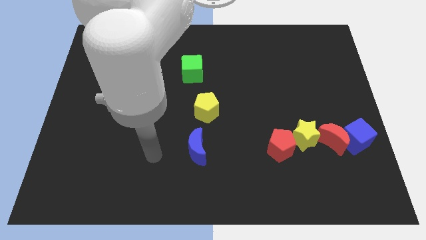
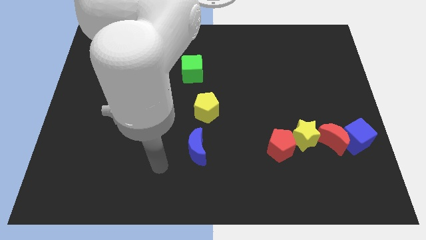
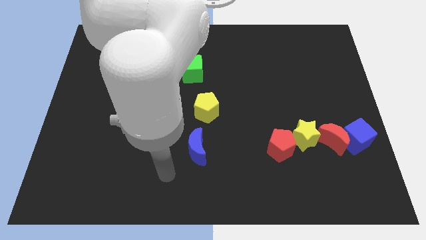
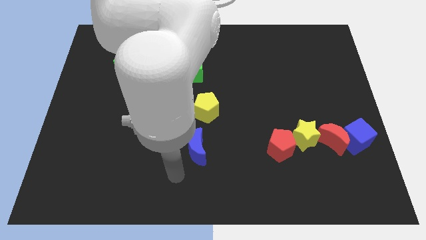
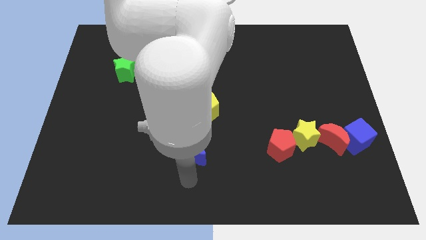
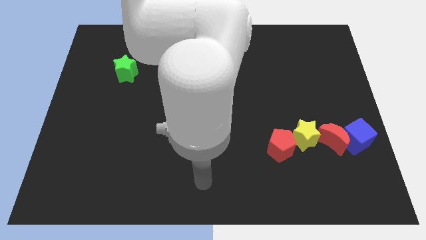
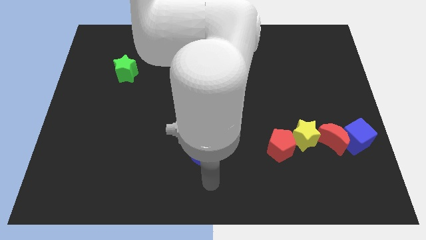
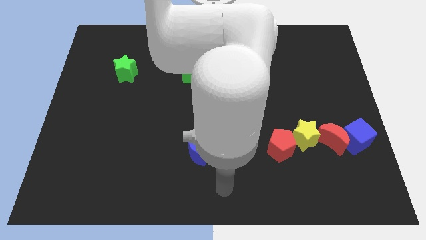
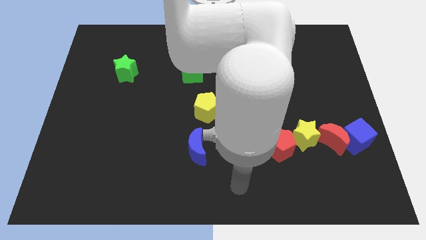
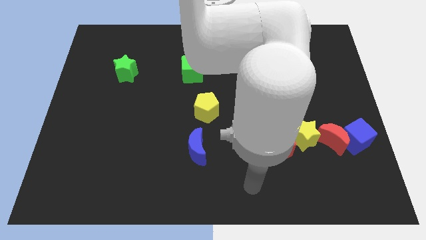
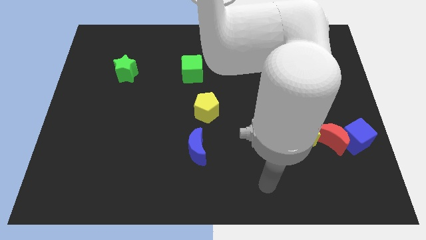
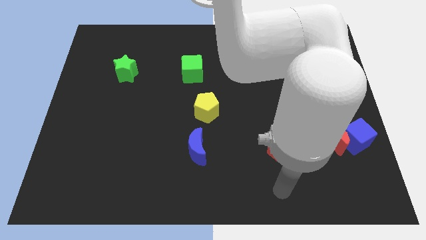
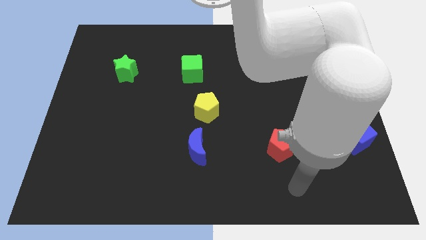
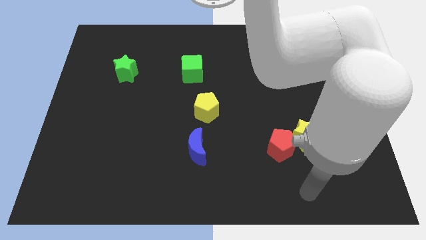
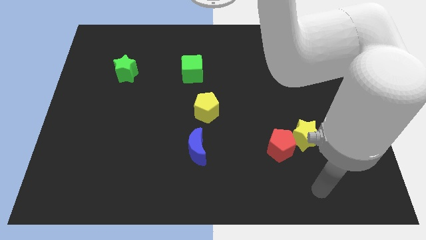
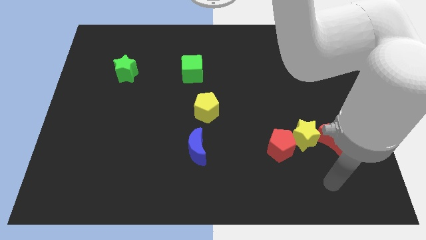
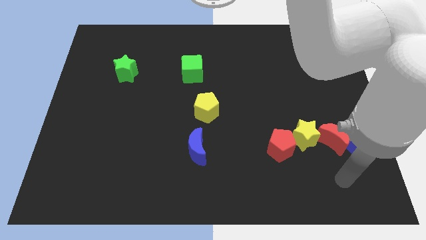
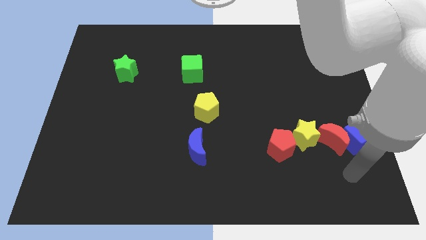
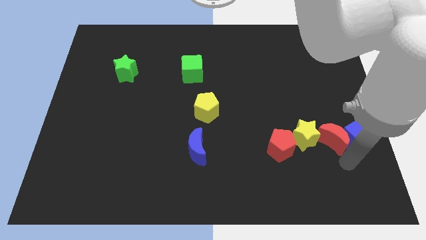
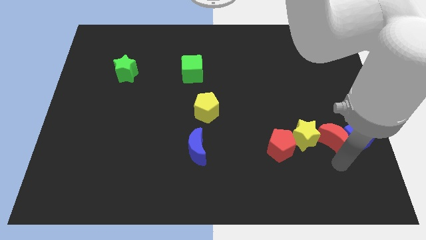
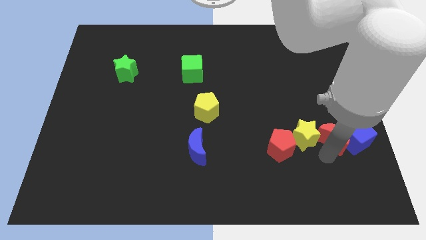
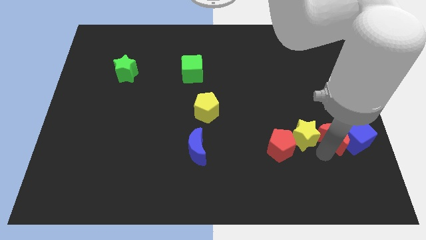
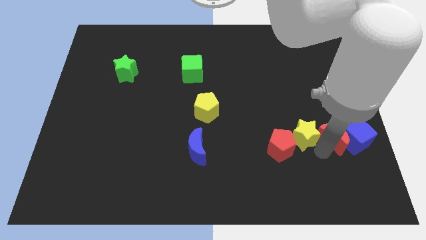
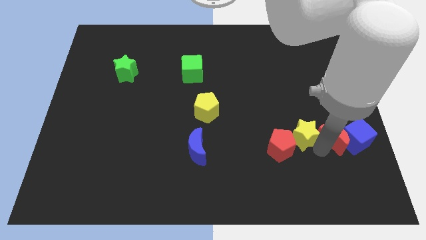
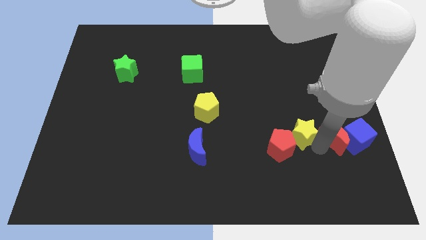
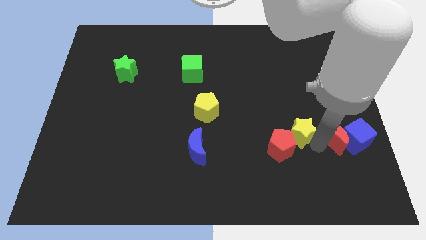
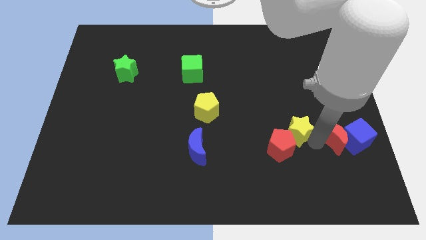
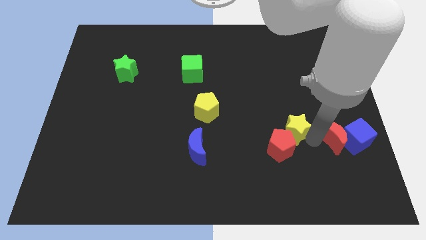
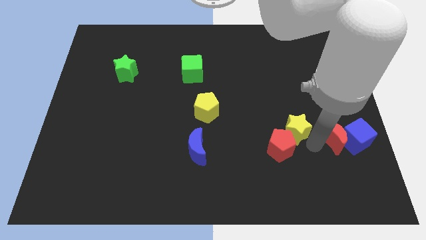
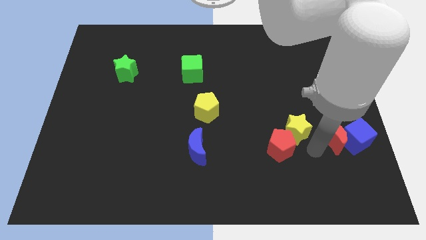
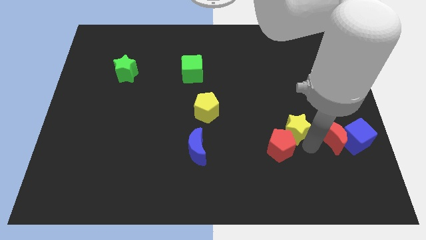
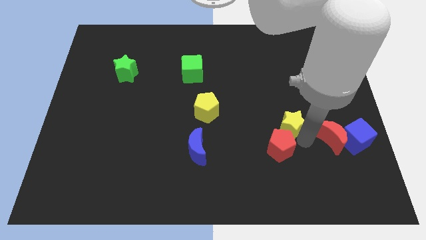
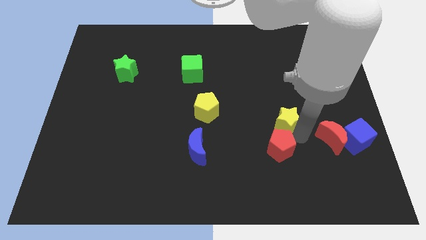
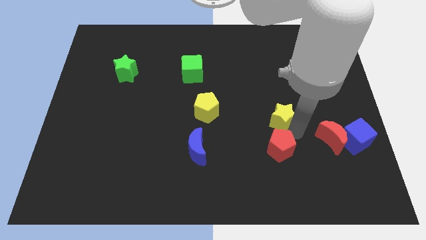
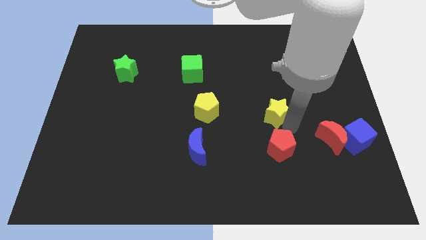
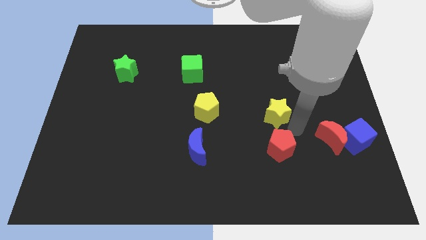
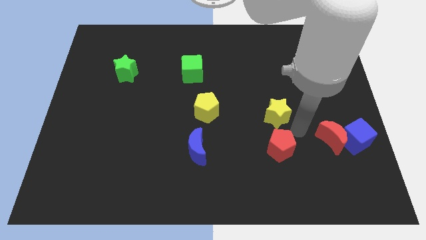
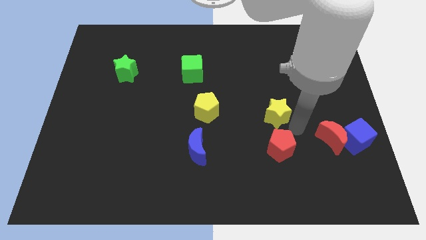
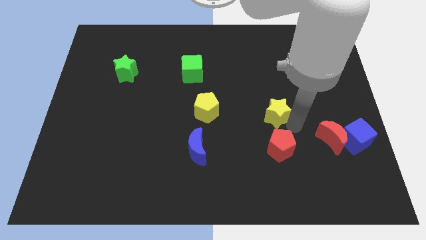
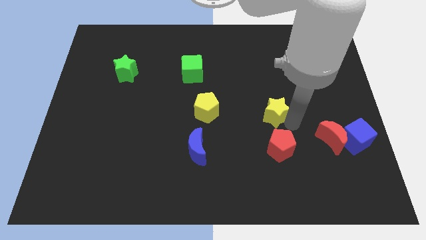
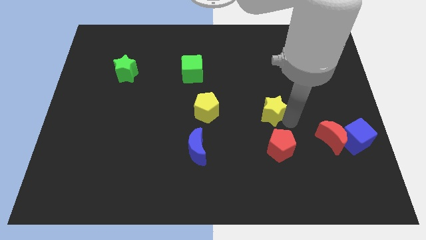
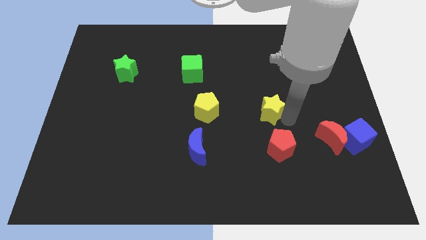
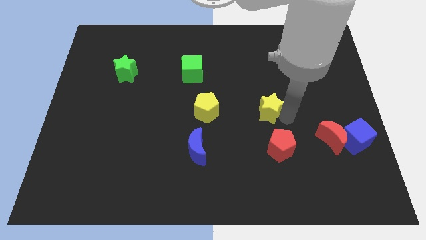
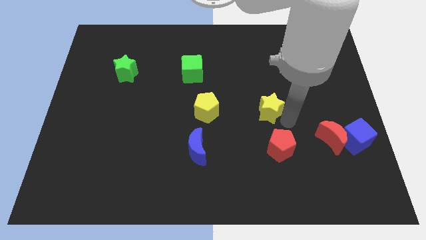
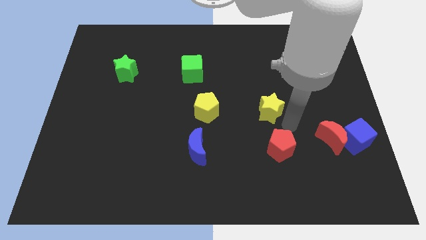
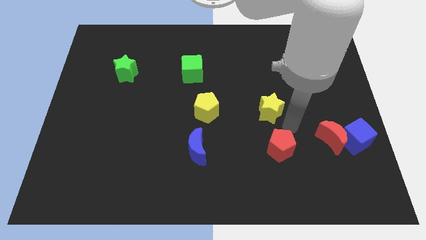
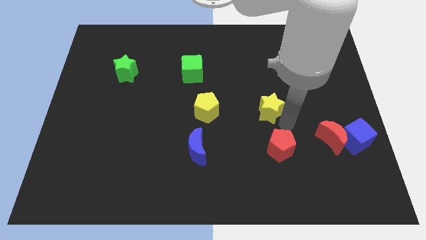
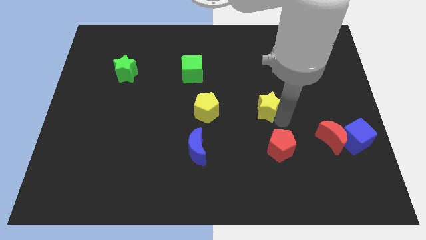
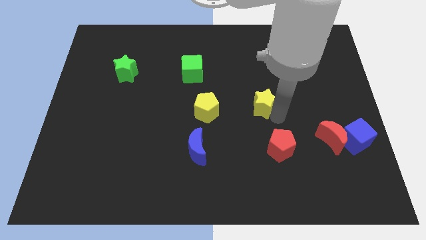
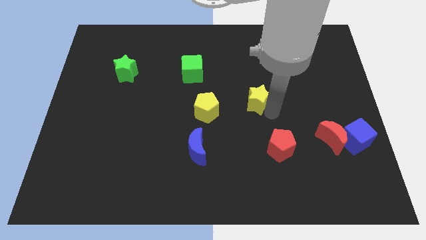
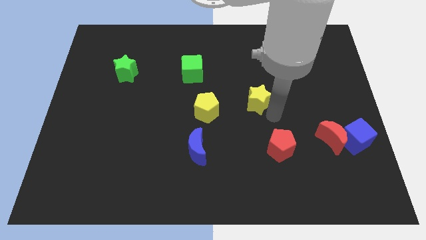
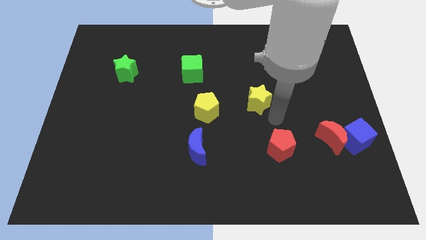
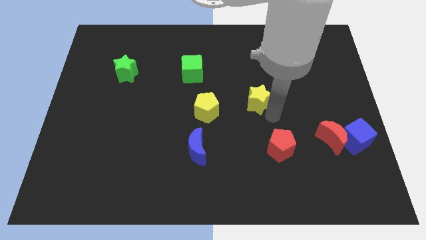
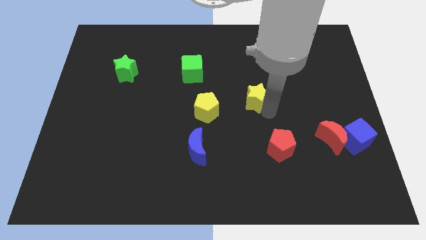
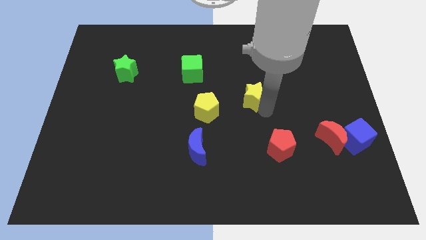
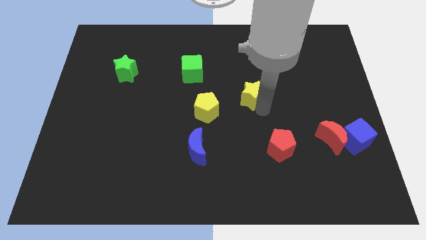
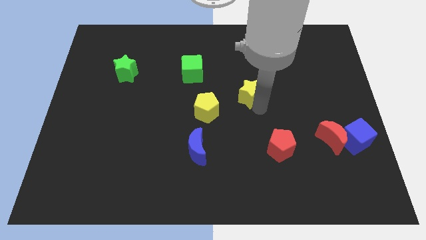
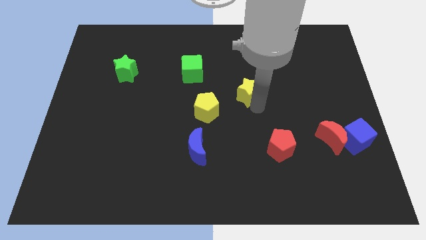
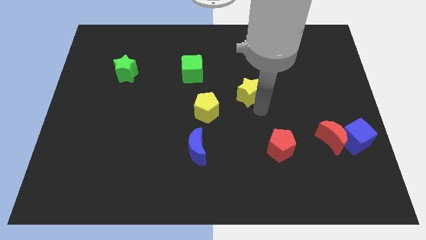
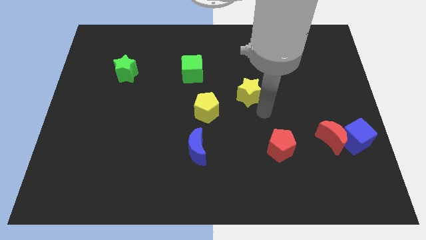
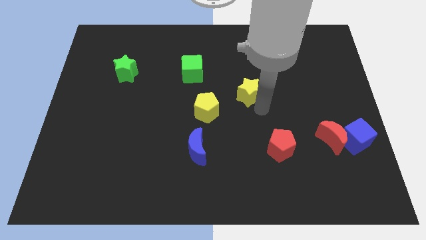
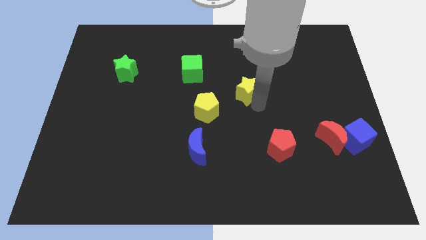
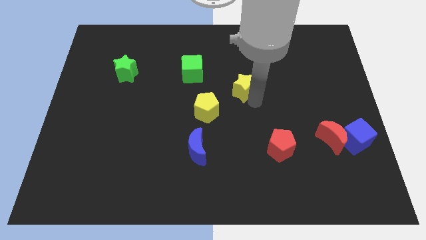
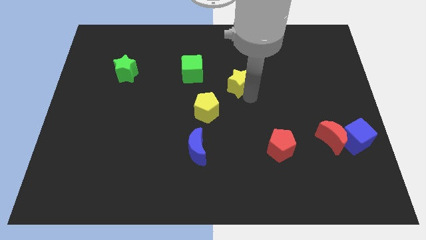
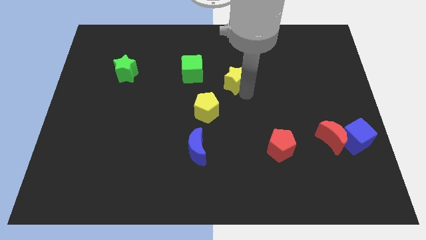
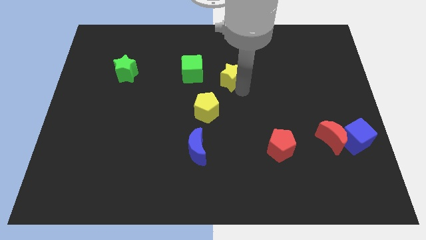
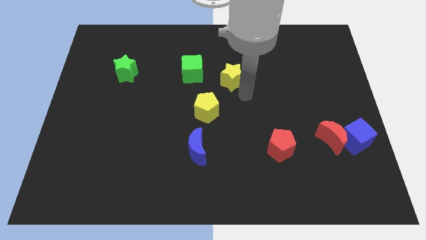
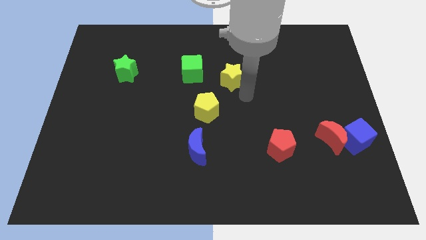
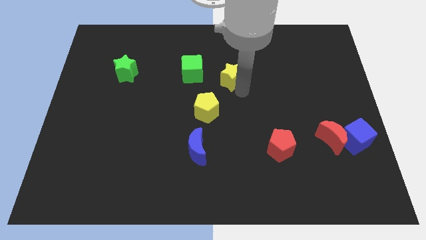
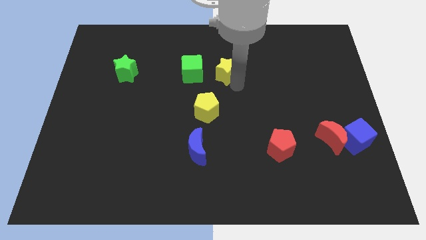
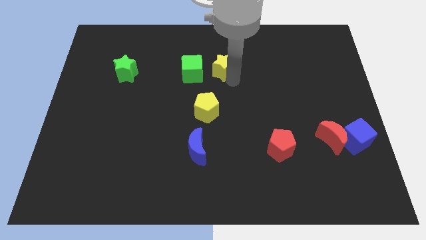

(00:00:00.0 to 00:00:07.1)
move the yellow star to the top right of the green cube

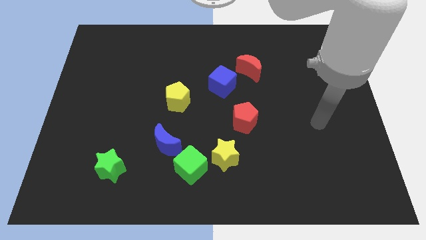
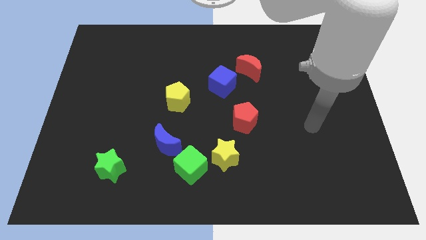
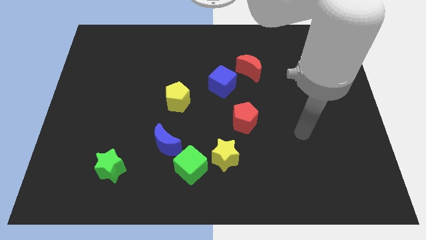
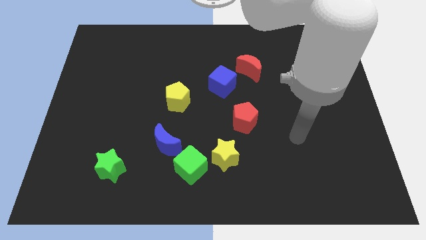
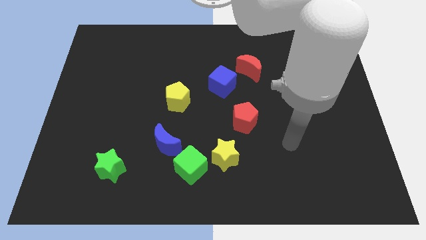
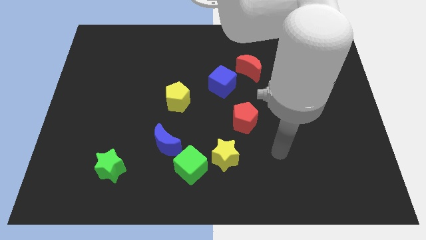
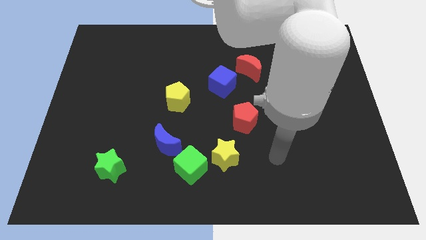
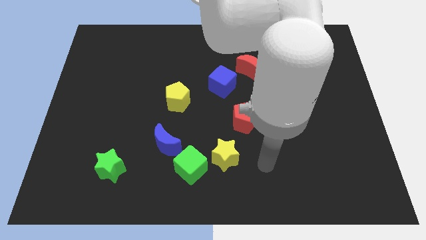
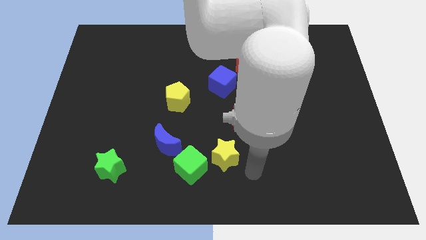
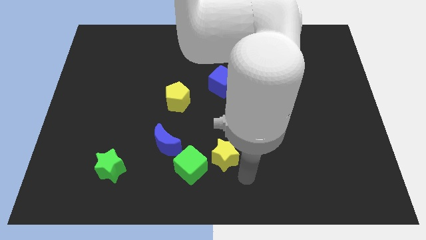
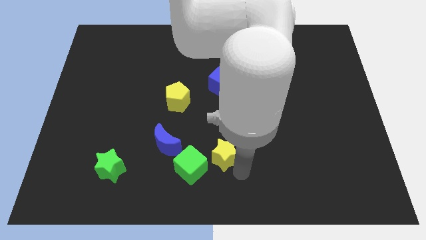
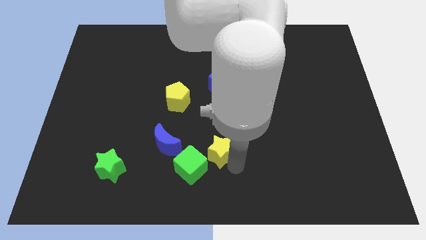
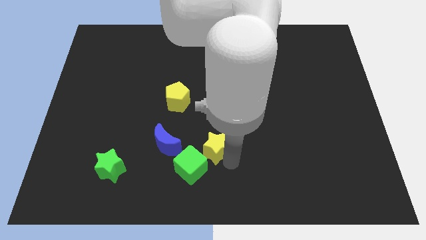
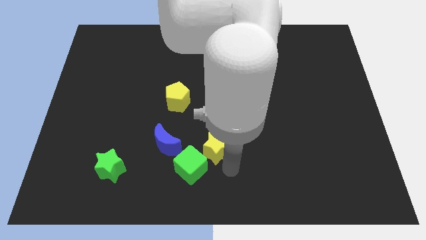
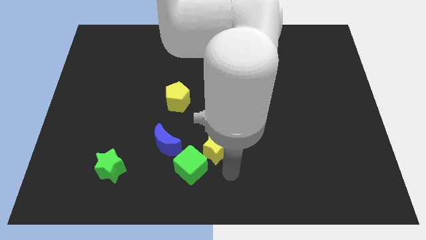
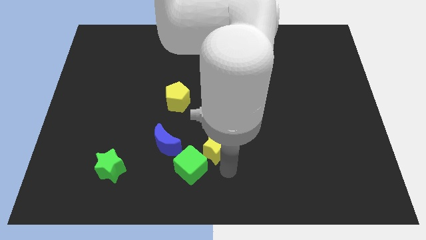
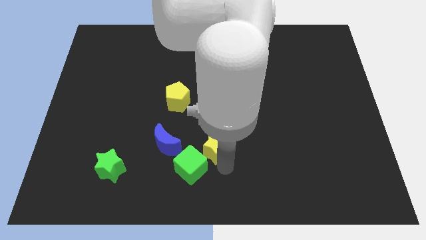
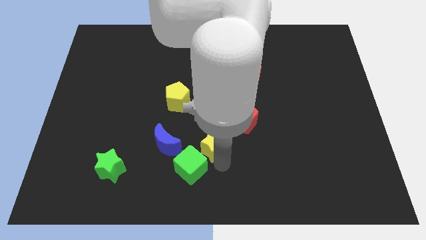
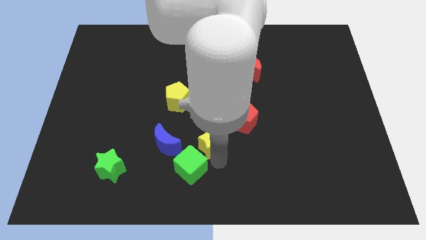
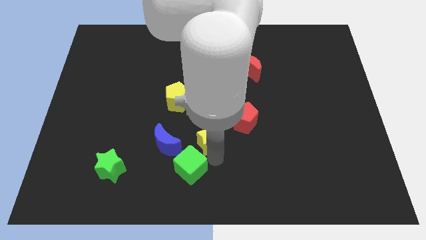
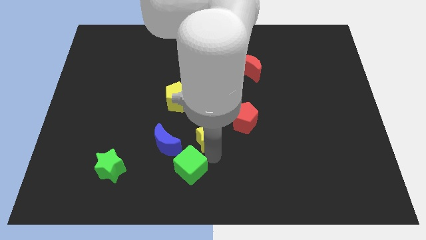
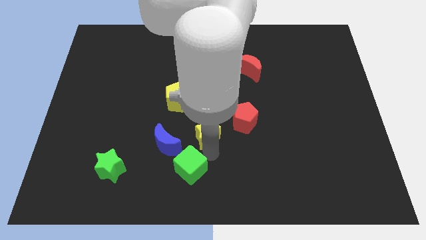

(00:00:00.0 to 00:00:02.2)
put the yellow star to the bottom right side of the yellow pentagon
